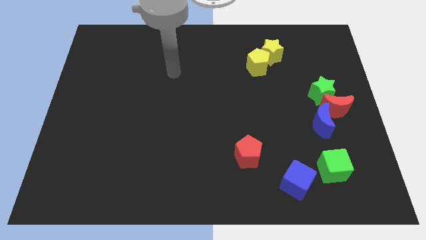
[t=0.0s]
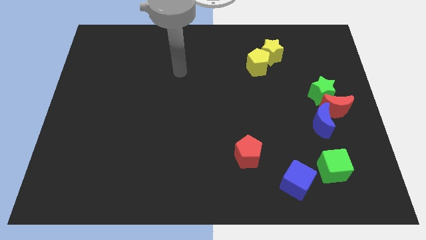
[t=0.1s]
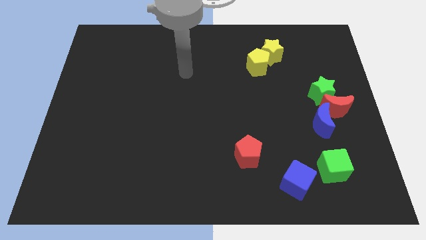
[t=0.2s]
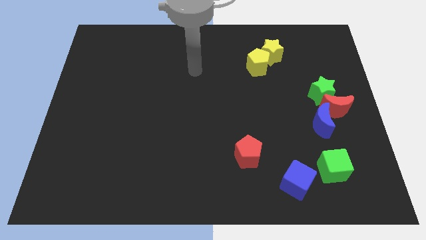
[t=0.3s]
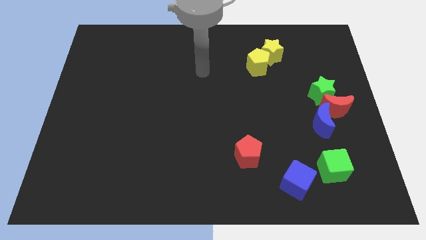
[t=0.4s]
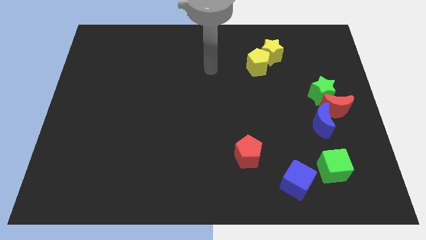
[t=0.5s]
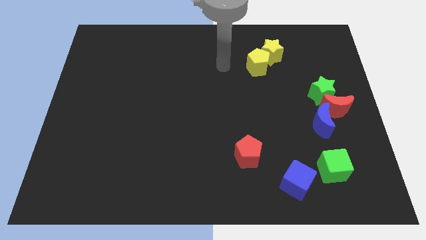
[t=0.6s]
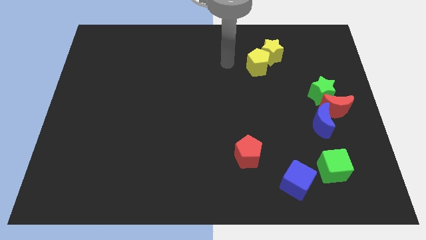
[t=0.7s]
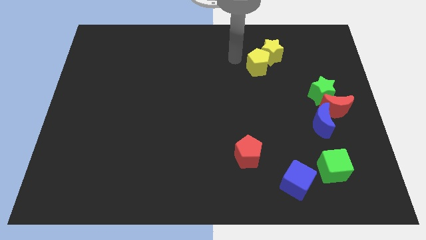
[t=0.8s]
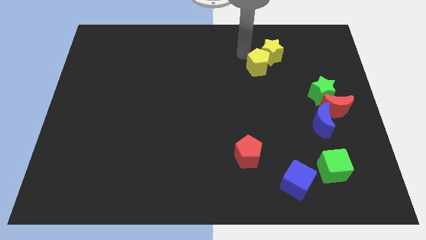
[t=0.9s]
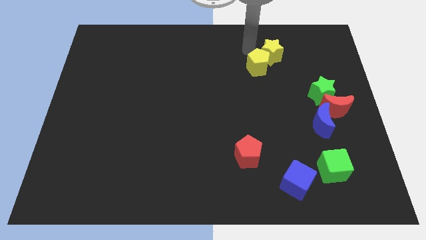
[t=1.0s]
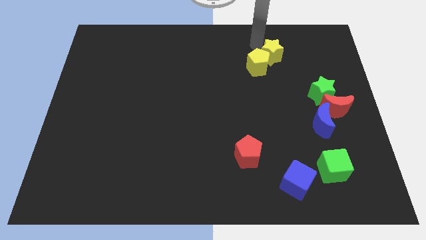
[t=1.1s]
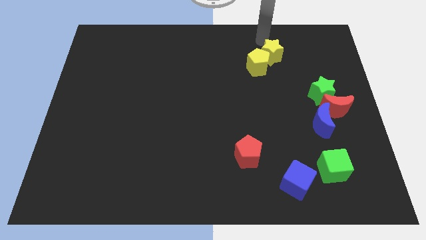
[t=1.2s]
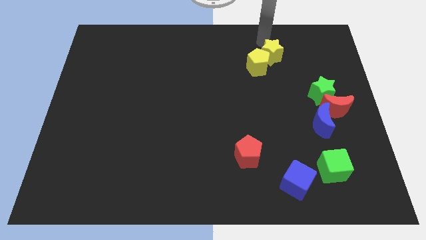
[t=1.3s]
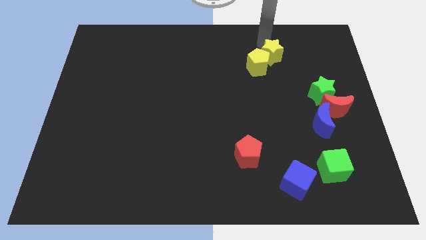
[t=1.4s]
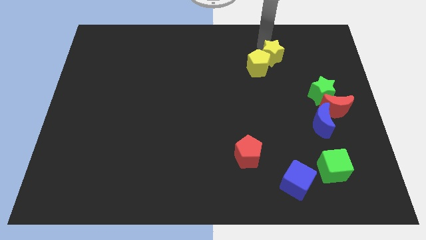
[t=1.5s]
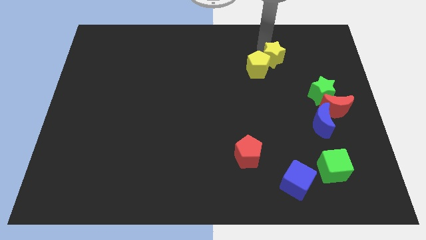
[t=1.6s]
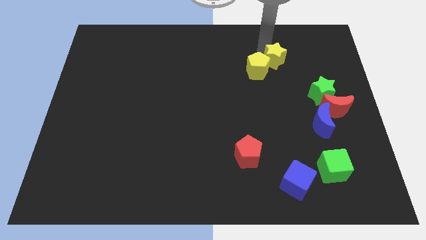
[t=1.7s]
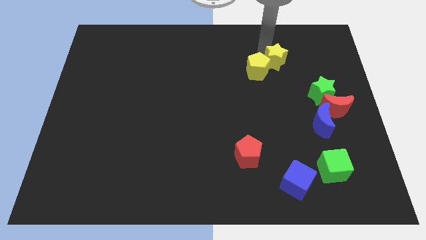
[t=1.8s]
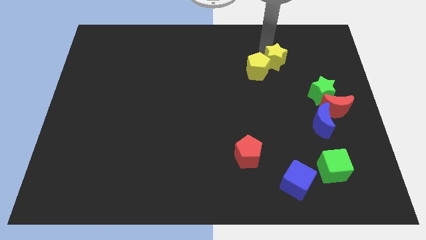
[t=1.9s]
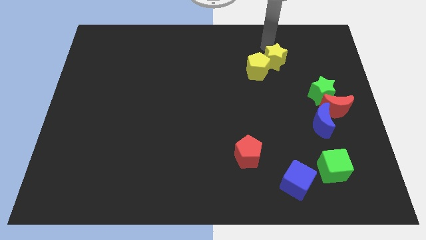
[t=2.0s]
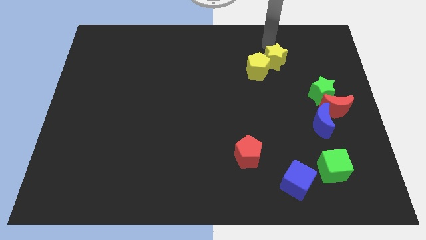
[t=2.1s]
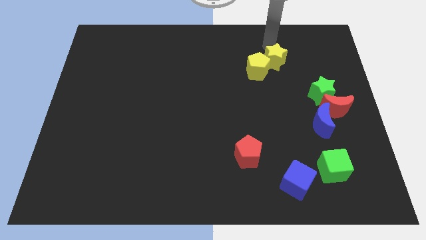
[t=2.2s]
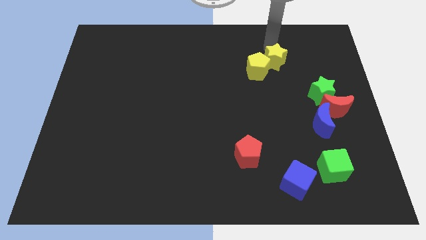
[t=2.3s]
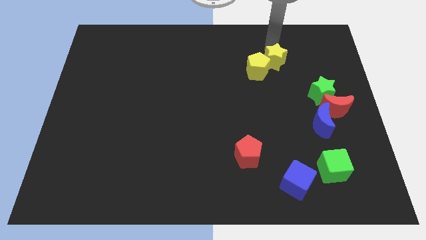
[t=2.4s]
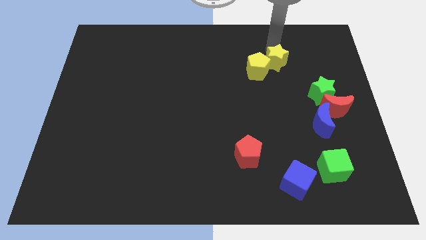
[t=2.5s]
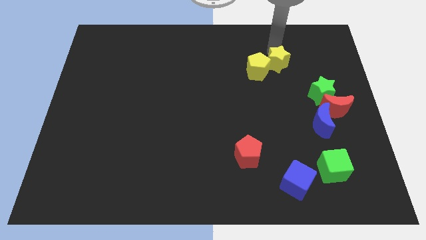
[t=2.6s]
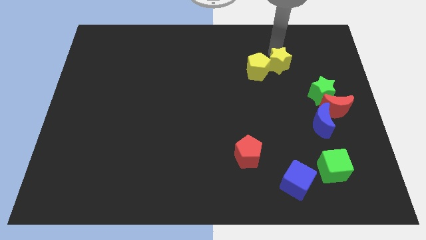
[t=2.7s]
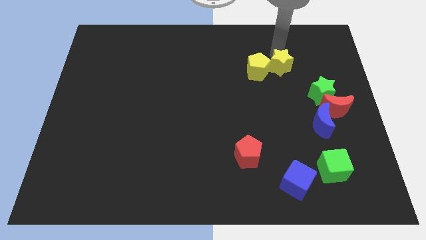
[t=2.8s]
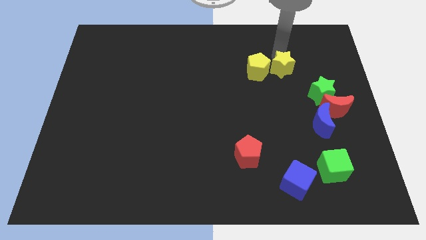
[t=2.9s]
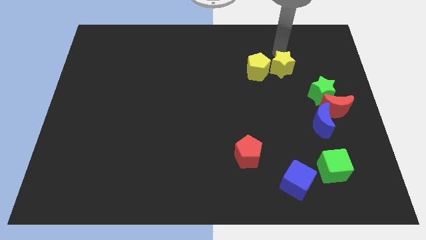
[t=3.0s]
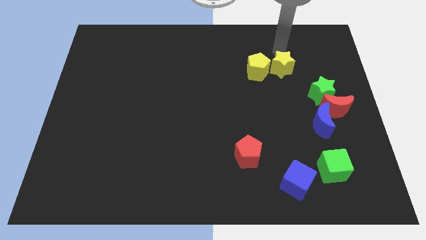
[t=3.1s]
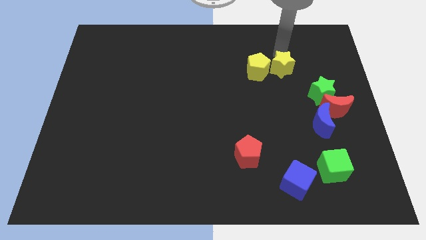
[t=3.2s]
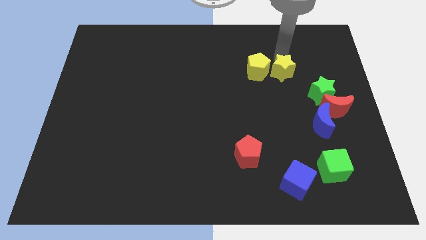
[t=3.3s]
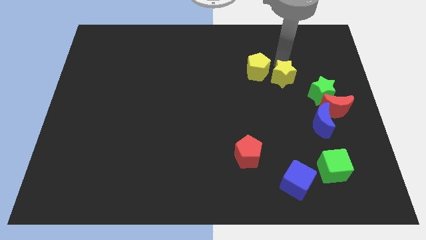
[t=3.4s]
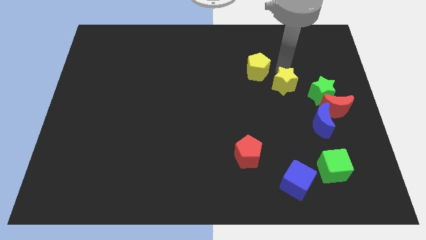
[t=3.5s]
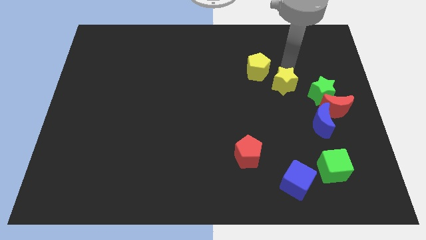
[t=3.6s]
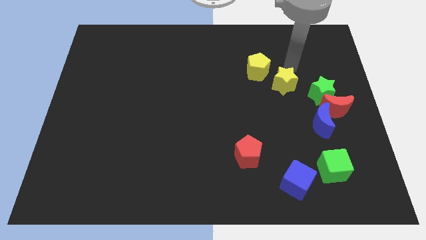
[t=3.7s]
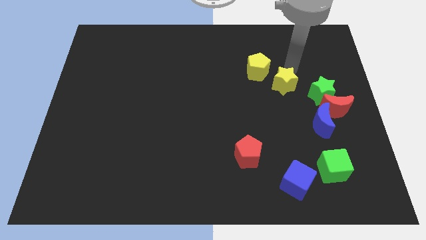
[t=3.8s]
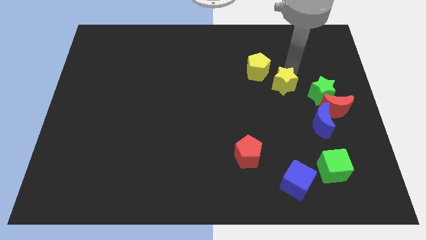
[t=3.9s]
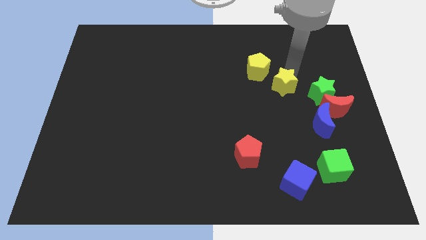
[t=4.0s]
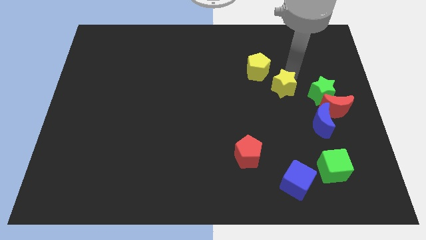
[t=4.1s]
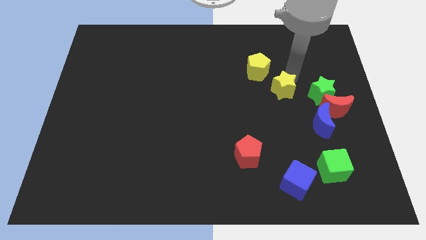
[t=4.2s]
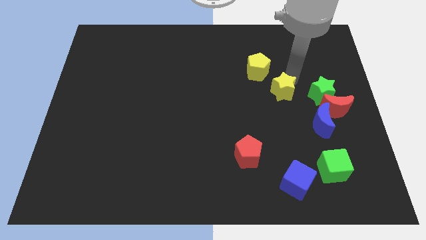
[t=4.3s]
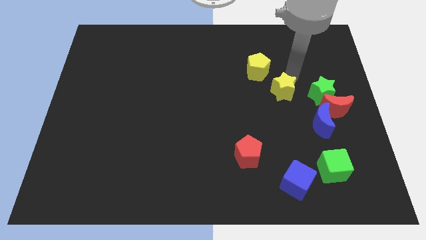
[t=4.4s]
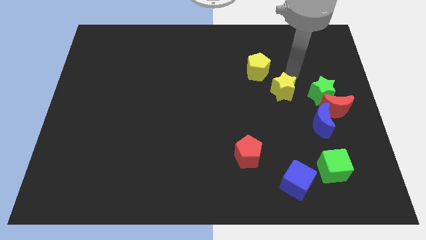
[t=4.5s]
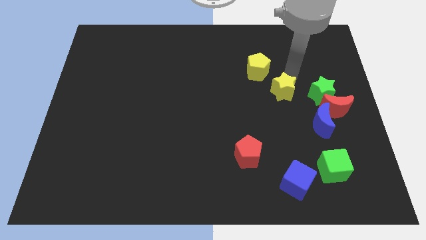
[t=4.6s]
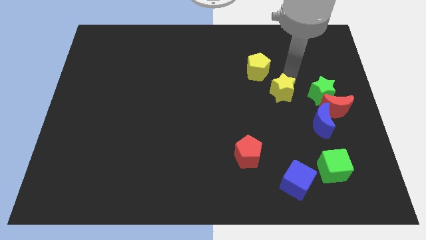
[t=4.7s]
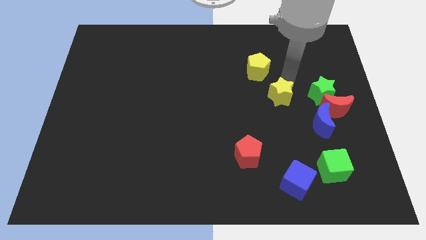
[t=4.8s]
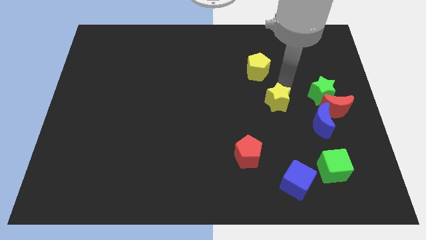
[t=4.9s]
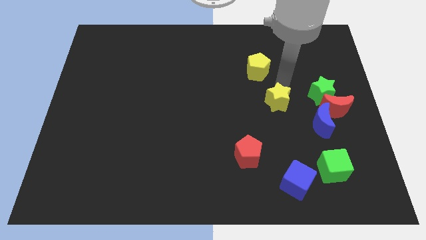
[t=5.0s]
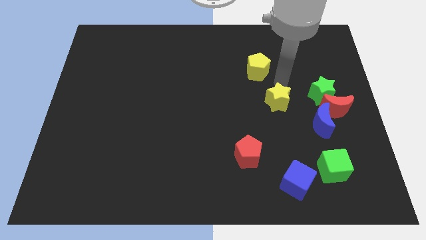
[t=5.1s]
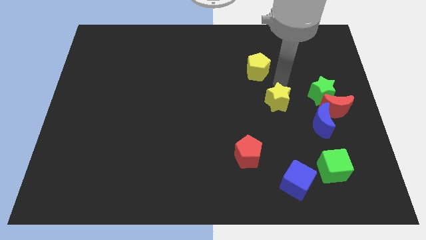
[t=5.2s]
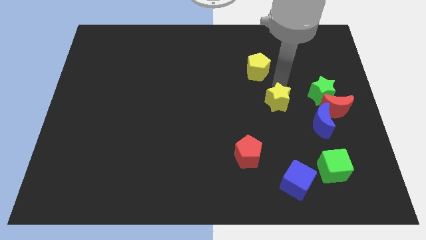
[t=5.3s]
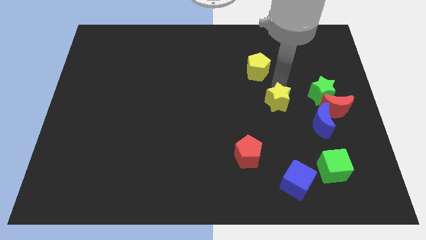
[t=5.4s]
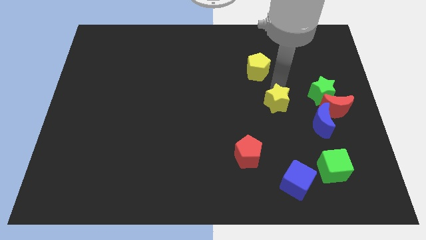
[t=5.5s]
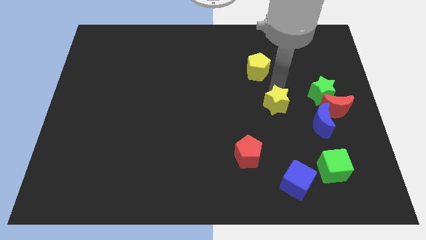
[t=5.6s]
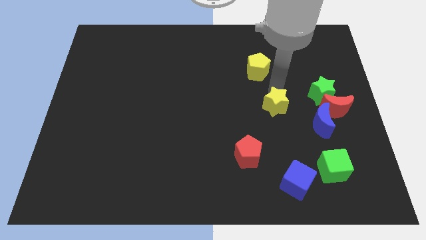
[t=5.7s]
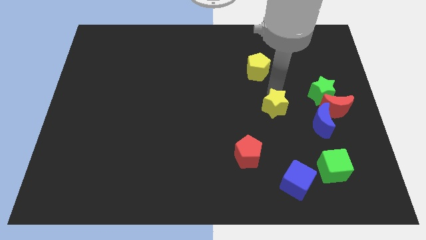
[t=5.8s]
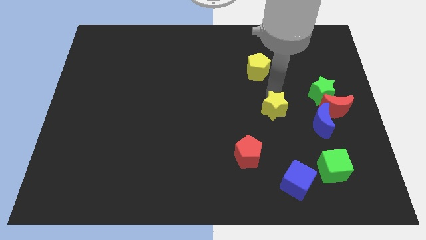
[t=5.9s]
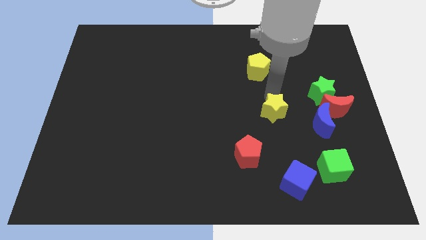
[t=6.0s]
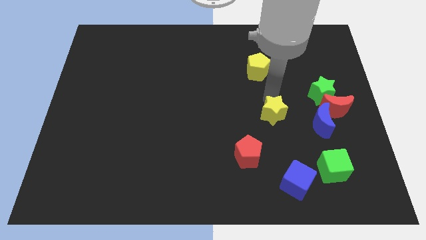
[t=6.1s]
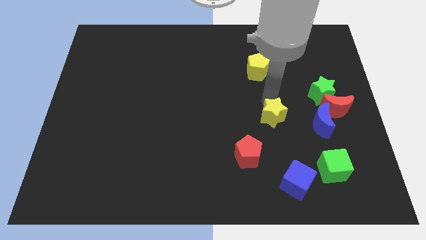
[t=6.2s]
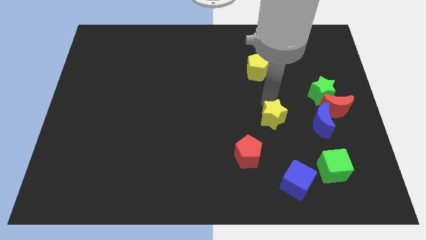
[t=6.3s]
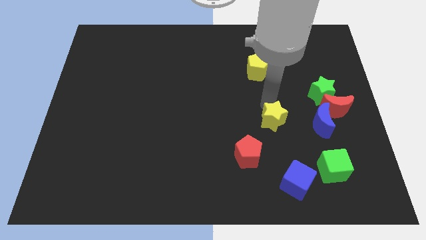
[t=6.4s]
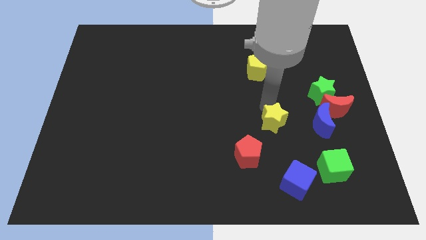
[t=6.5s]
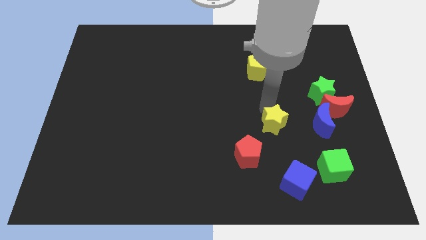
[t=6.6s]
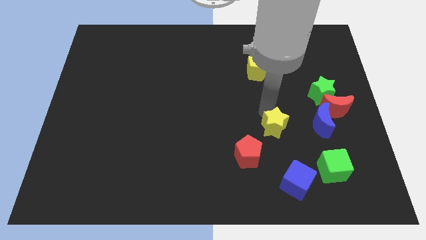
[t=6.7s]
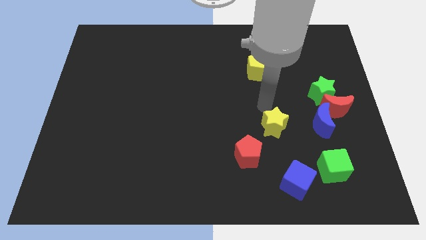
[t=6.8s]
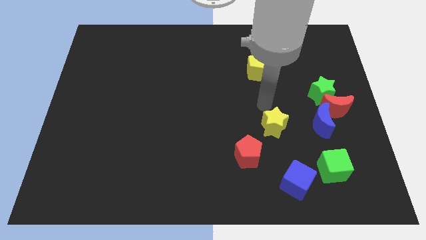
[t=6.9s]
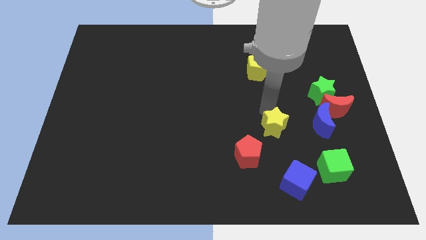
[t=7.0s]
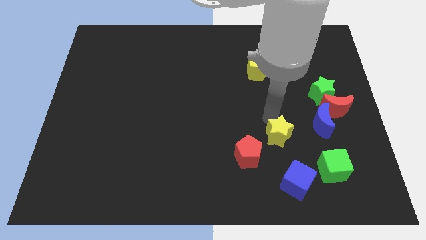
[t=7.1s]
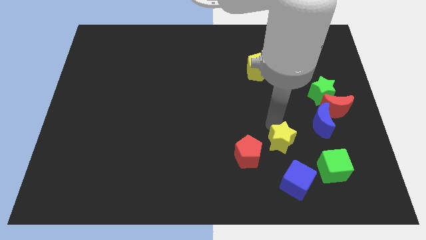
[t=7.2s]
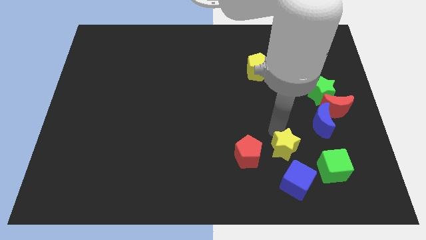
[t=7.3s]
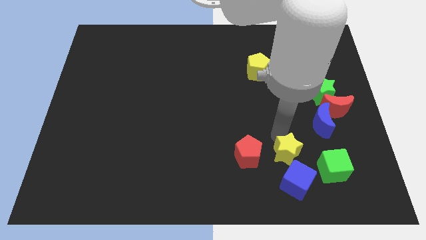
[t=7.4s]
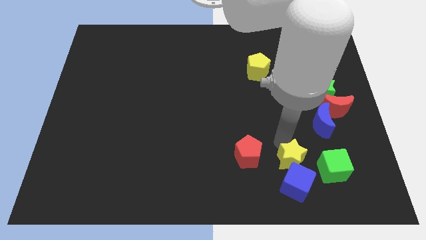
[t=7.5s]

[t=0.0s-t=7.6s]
slide the yellow star to the blue cube
